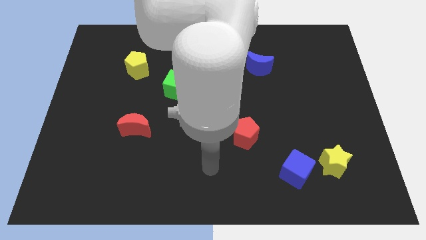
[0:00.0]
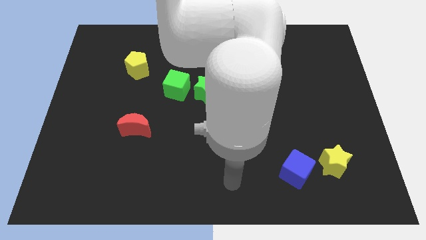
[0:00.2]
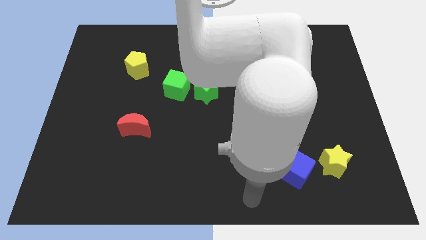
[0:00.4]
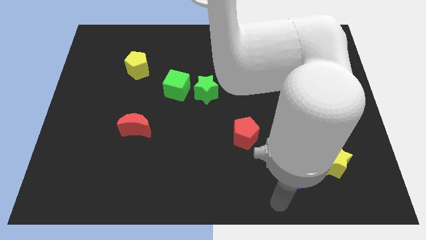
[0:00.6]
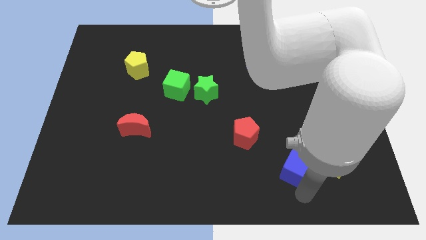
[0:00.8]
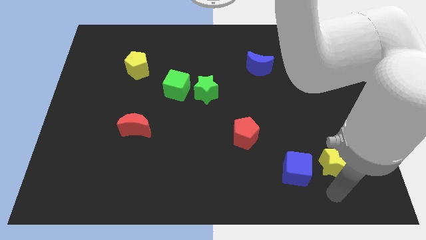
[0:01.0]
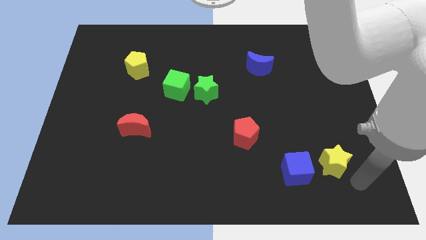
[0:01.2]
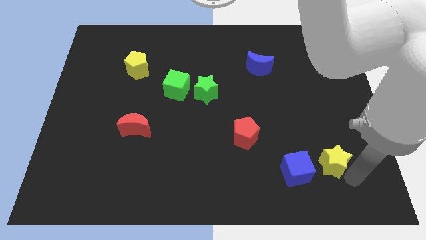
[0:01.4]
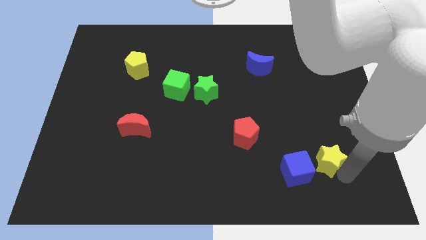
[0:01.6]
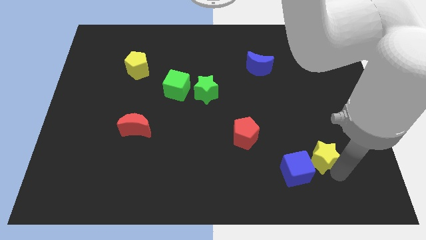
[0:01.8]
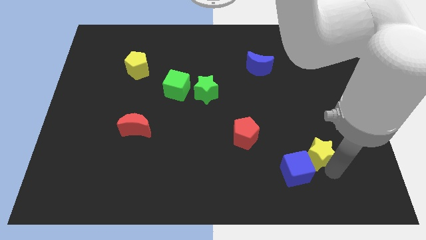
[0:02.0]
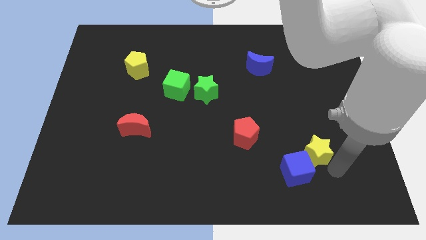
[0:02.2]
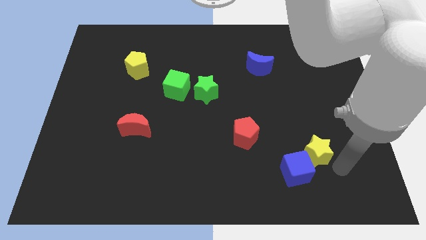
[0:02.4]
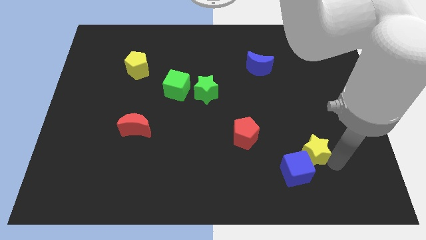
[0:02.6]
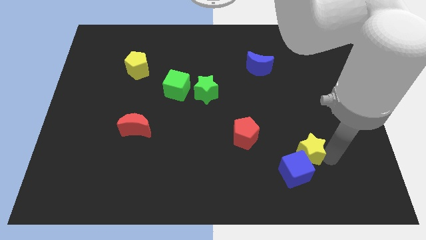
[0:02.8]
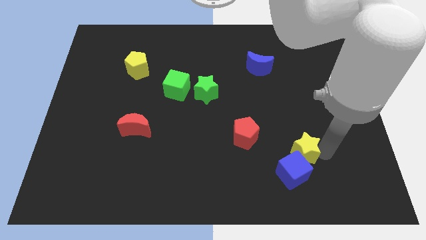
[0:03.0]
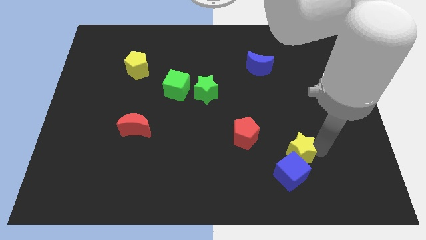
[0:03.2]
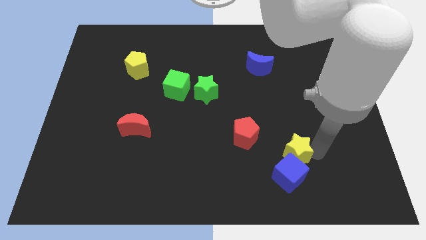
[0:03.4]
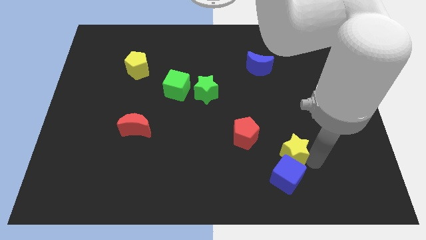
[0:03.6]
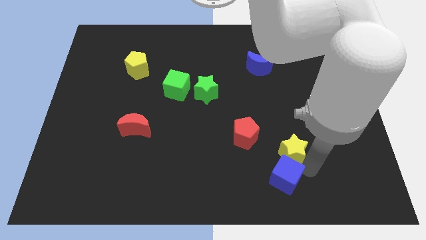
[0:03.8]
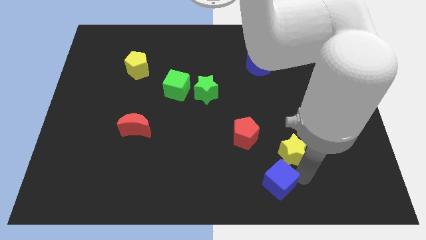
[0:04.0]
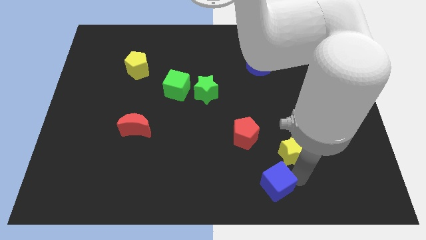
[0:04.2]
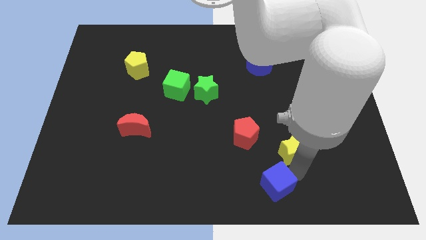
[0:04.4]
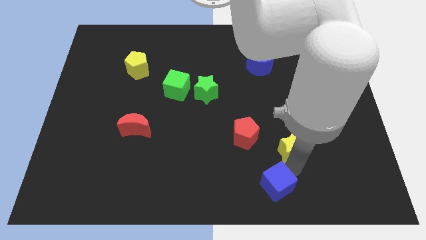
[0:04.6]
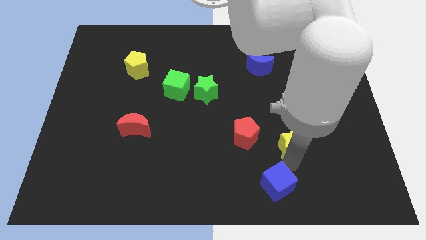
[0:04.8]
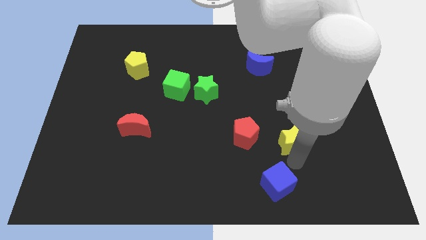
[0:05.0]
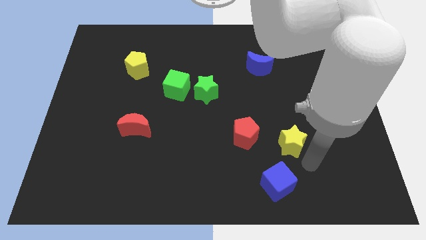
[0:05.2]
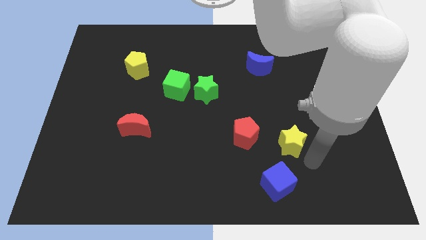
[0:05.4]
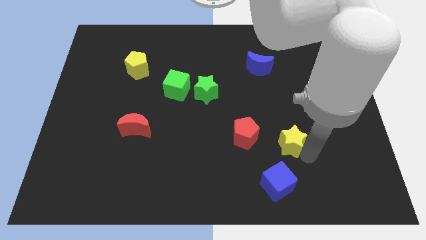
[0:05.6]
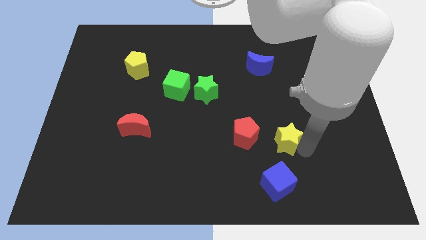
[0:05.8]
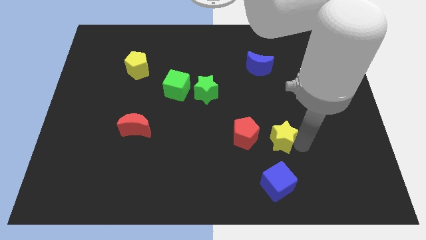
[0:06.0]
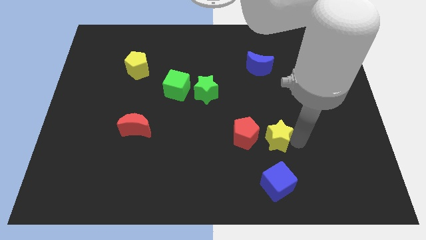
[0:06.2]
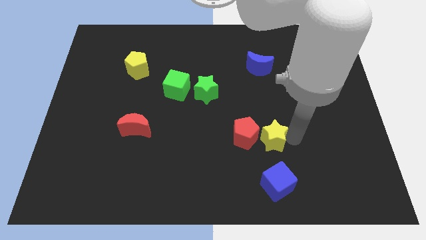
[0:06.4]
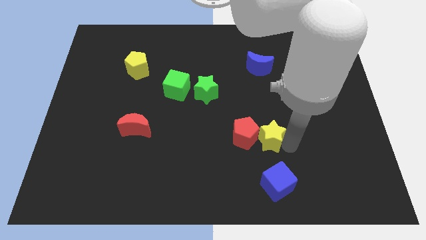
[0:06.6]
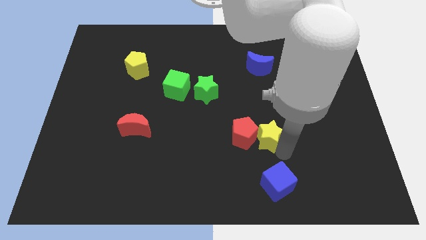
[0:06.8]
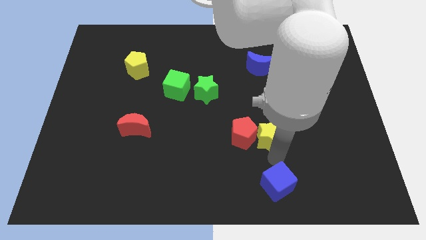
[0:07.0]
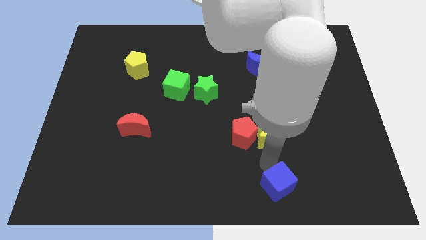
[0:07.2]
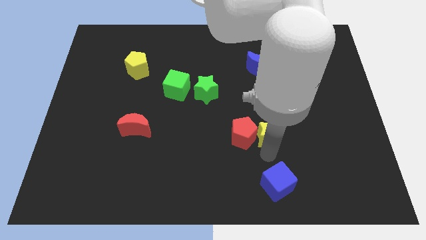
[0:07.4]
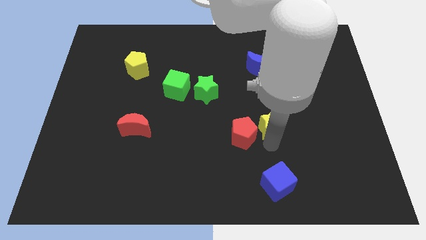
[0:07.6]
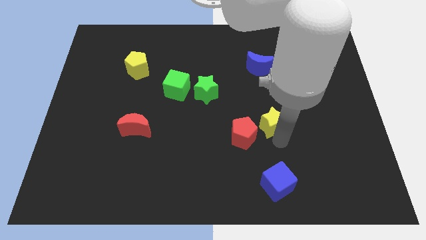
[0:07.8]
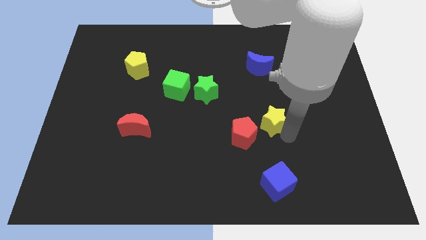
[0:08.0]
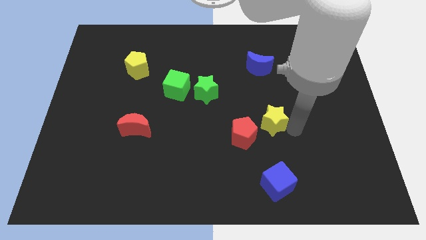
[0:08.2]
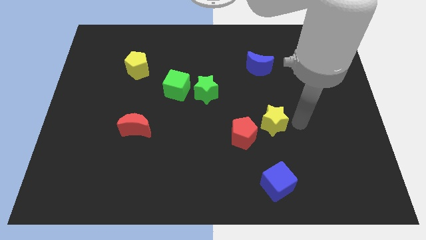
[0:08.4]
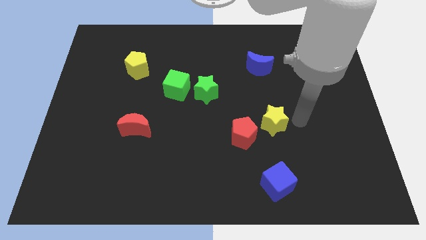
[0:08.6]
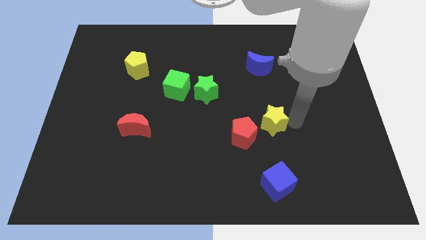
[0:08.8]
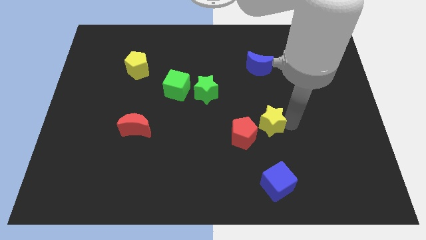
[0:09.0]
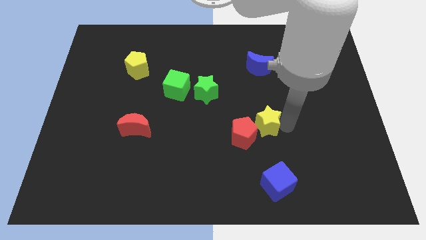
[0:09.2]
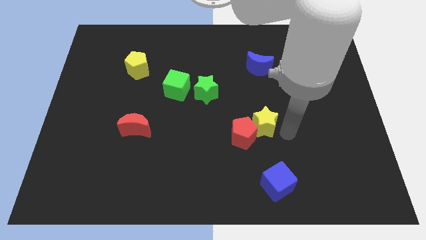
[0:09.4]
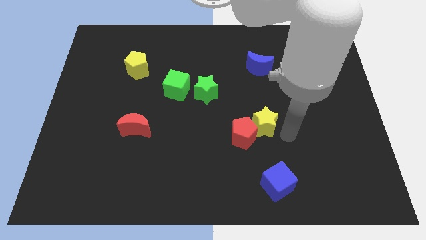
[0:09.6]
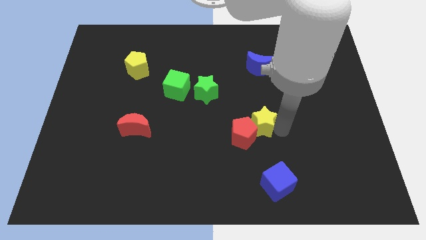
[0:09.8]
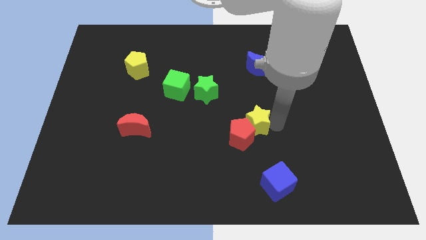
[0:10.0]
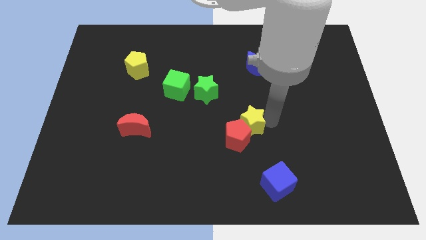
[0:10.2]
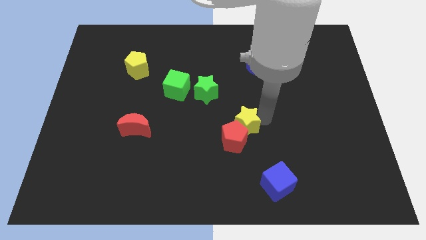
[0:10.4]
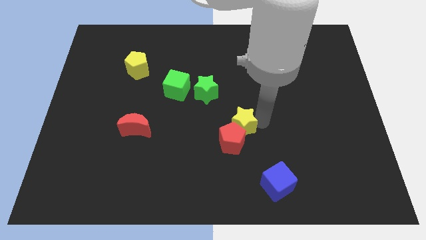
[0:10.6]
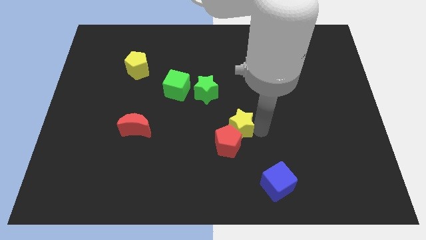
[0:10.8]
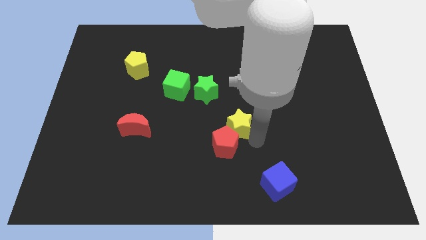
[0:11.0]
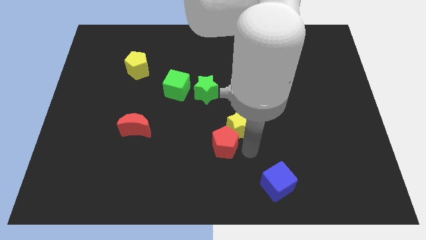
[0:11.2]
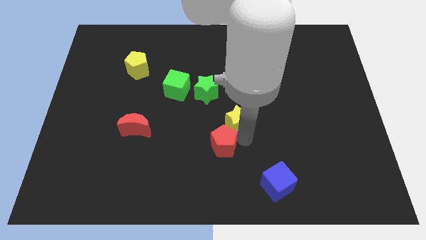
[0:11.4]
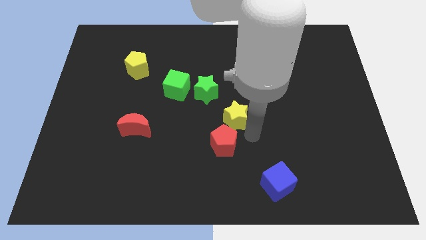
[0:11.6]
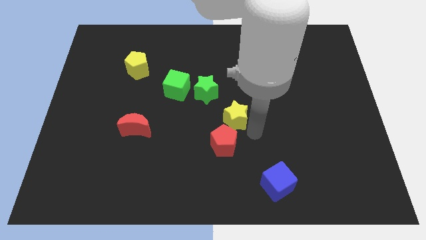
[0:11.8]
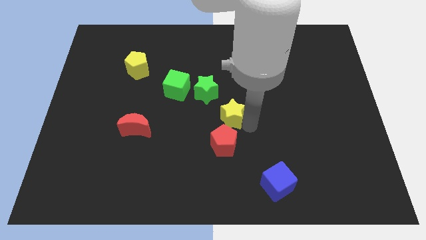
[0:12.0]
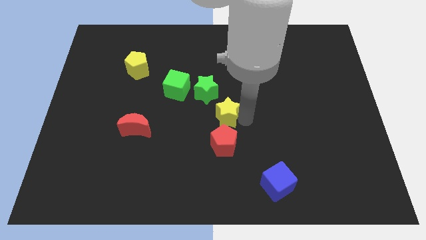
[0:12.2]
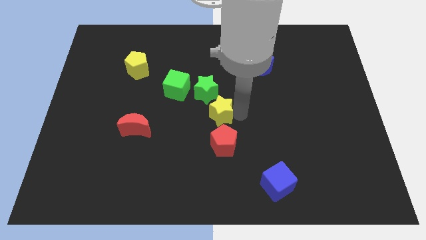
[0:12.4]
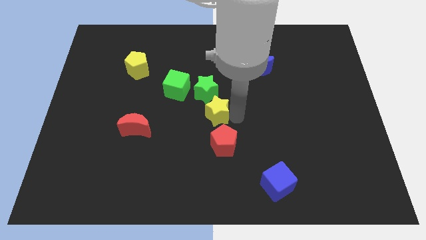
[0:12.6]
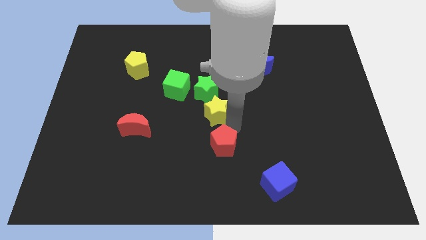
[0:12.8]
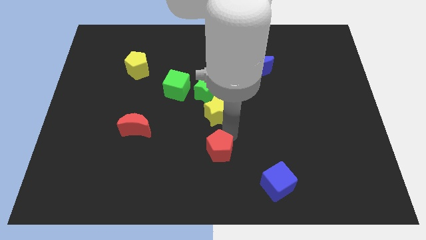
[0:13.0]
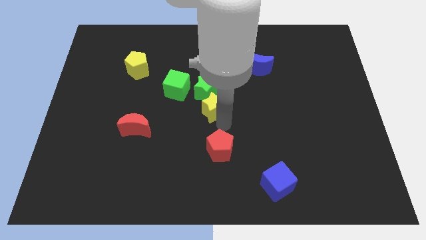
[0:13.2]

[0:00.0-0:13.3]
move the yellow star to the green star

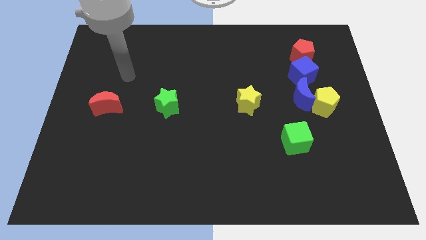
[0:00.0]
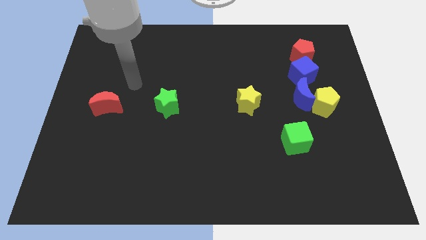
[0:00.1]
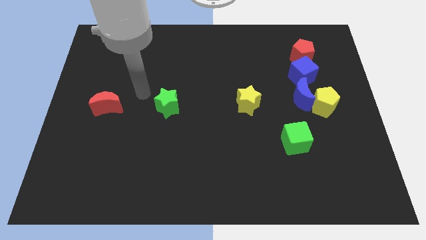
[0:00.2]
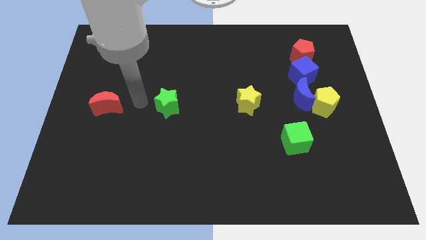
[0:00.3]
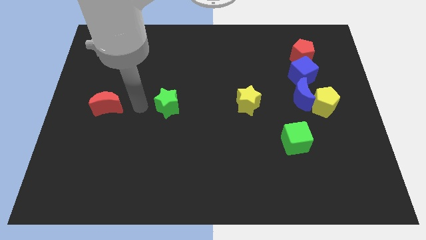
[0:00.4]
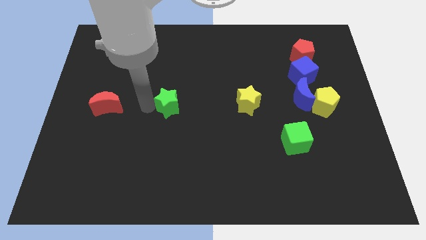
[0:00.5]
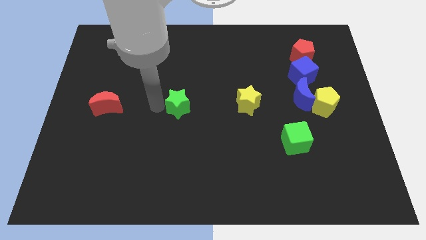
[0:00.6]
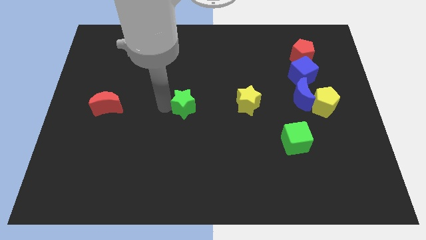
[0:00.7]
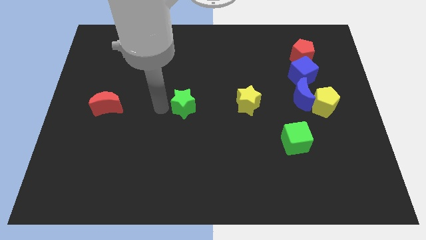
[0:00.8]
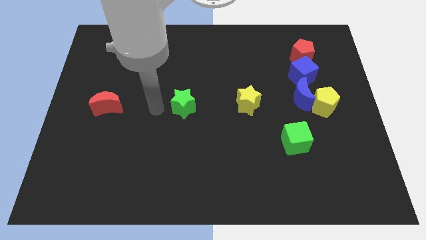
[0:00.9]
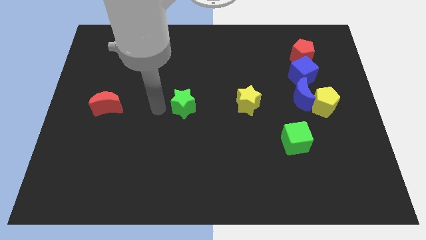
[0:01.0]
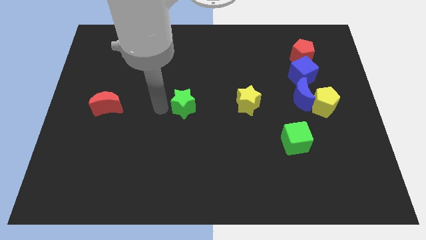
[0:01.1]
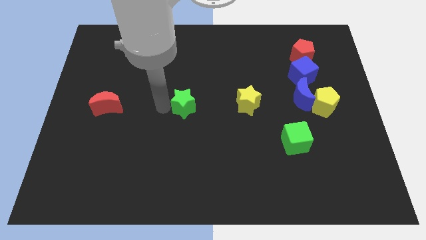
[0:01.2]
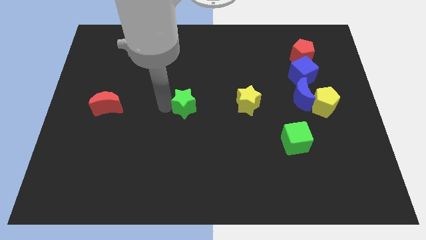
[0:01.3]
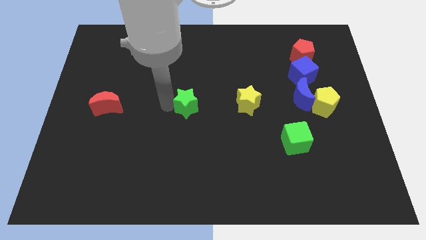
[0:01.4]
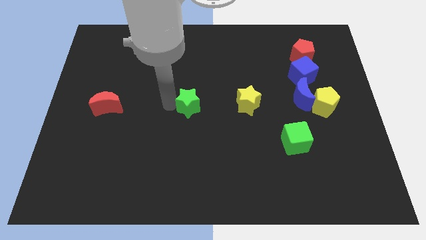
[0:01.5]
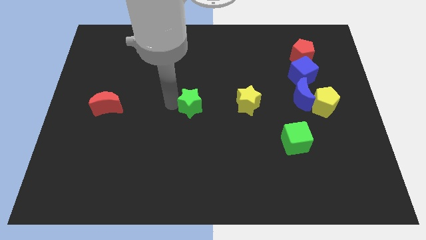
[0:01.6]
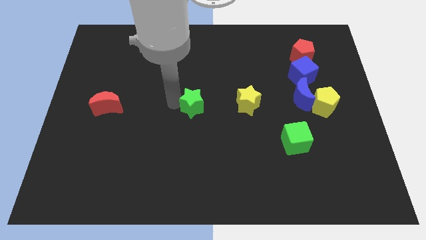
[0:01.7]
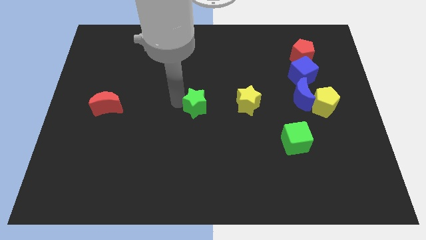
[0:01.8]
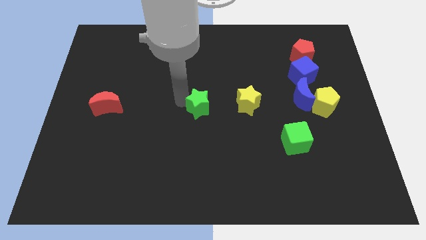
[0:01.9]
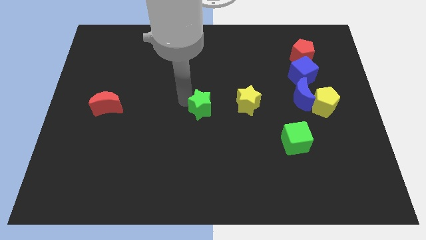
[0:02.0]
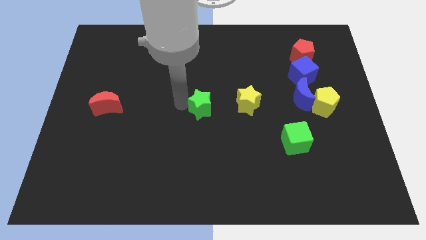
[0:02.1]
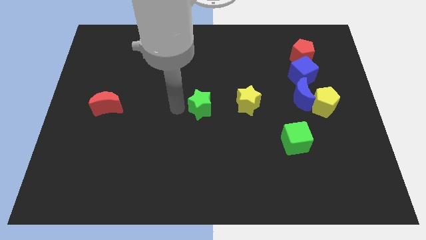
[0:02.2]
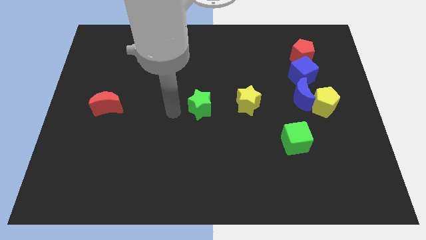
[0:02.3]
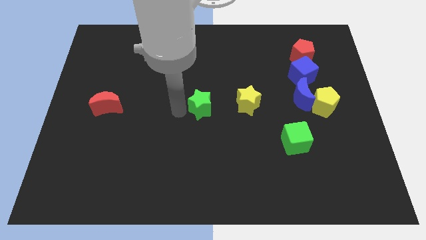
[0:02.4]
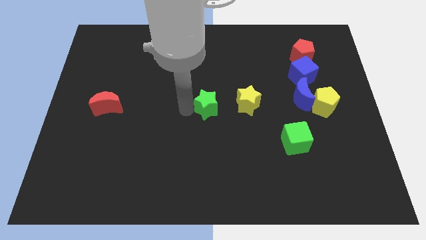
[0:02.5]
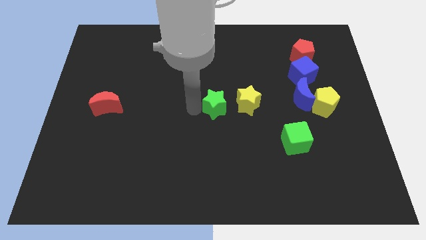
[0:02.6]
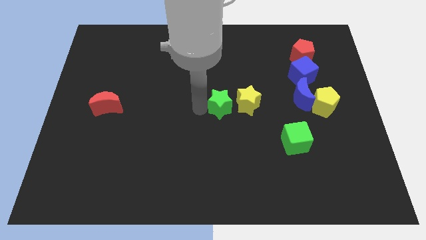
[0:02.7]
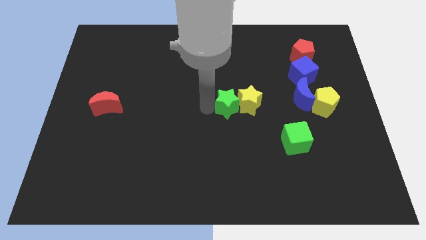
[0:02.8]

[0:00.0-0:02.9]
put the green star towards the yellow star
